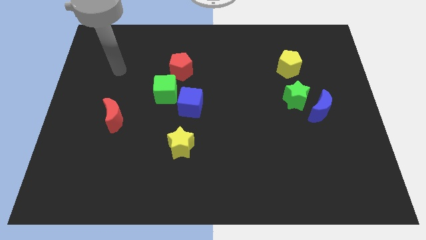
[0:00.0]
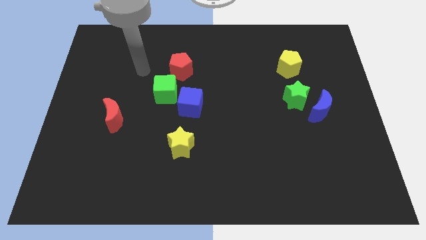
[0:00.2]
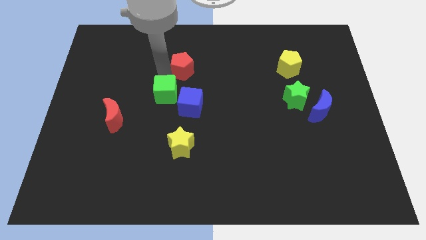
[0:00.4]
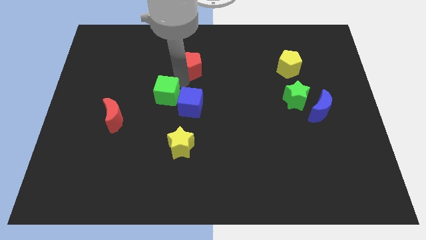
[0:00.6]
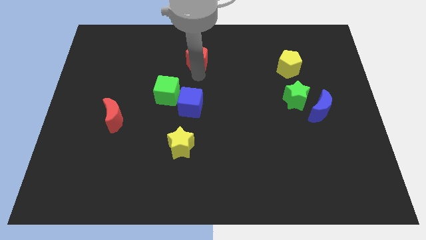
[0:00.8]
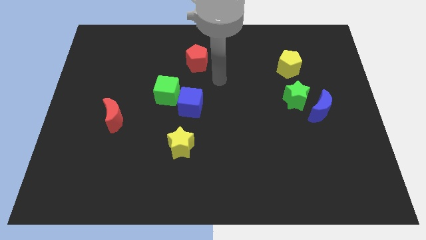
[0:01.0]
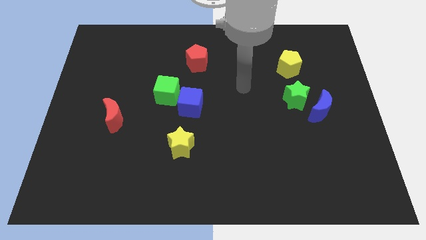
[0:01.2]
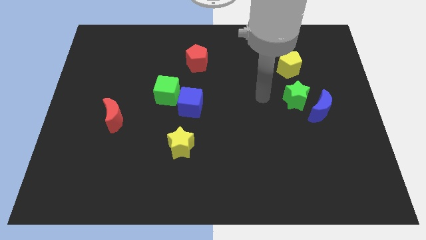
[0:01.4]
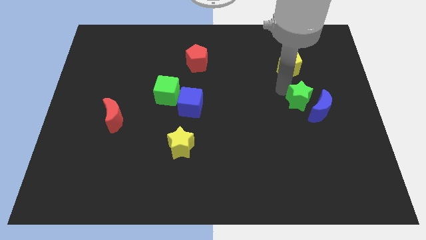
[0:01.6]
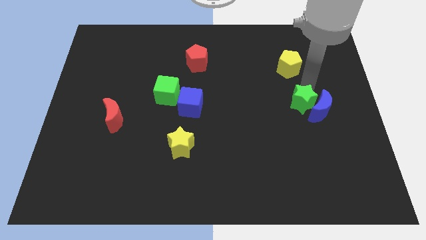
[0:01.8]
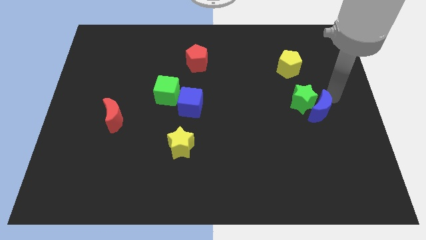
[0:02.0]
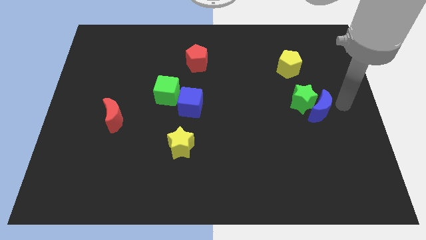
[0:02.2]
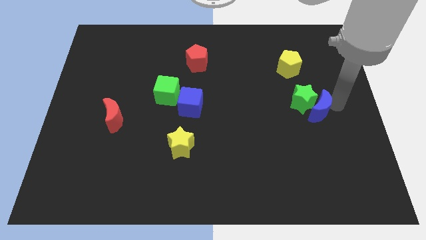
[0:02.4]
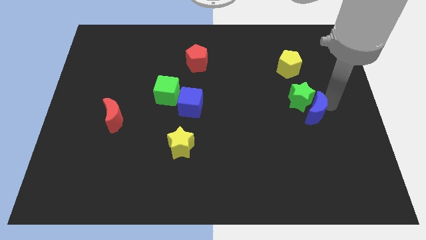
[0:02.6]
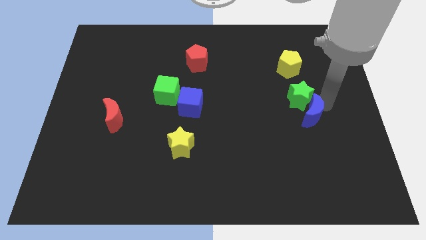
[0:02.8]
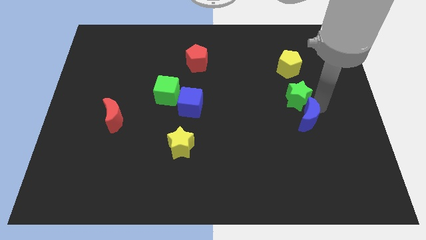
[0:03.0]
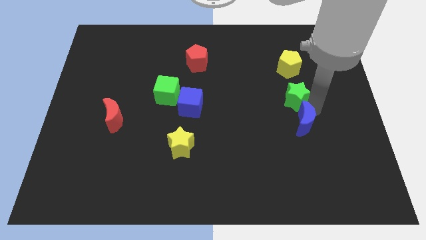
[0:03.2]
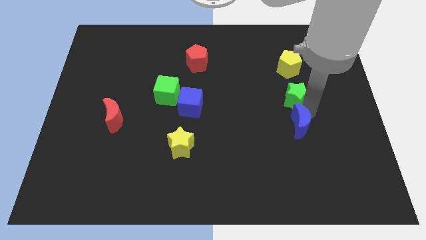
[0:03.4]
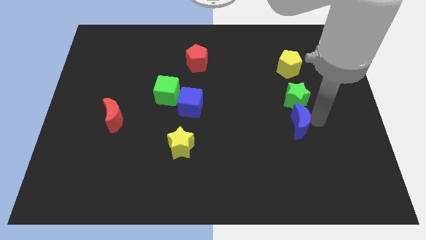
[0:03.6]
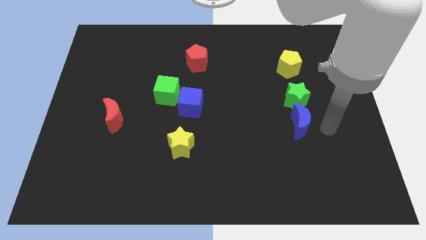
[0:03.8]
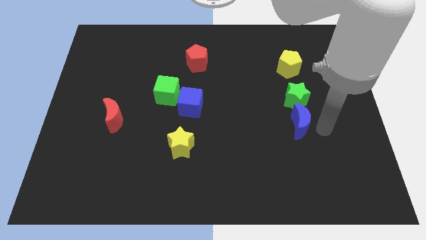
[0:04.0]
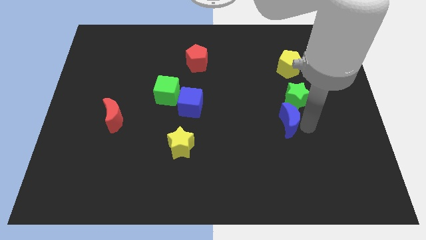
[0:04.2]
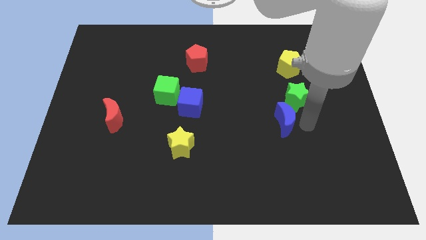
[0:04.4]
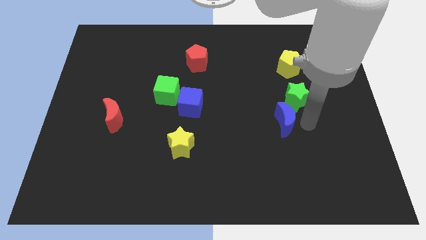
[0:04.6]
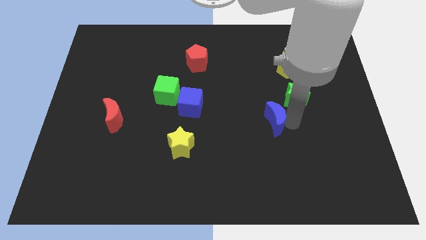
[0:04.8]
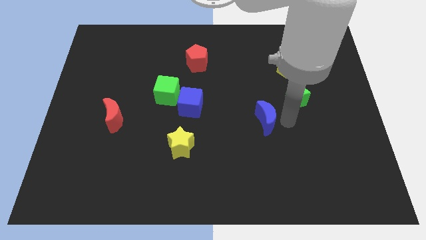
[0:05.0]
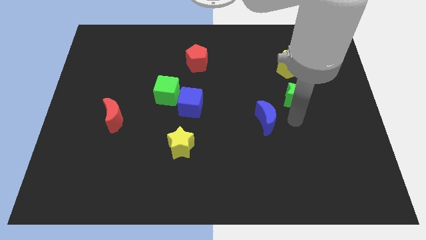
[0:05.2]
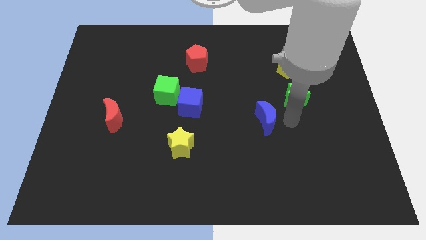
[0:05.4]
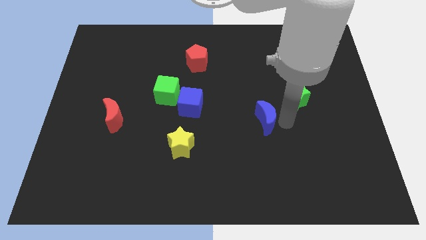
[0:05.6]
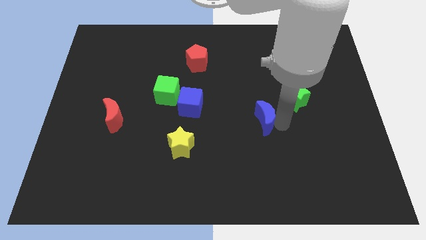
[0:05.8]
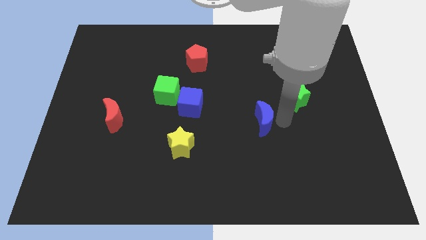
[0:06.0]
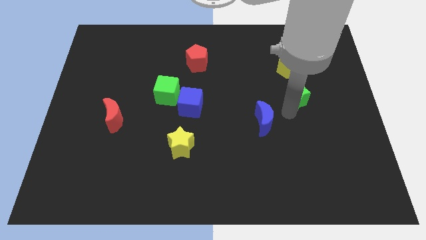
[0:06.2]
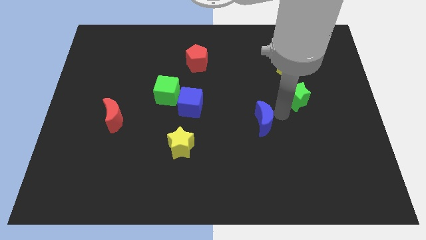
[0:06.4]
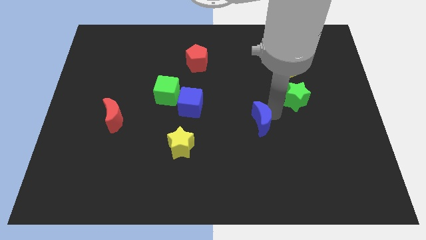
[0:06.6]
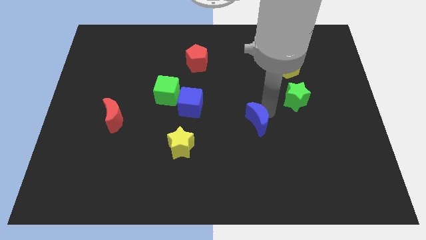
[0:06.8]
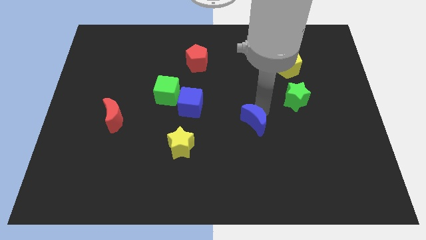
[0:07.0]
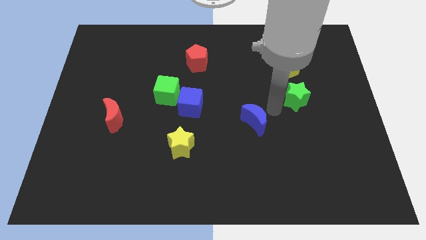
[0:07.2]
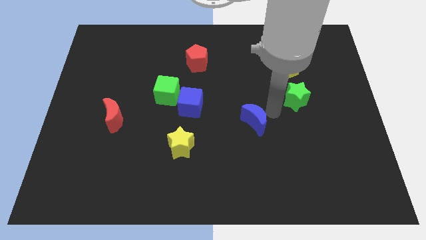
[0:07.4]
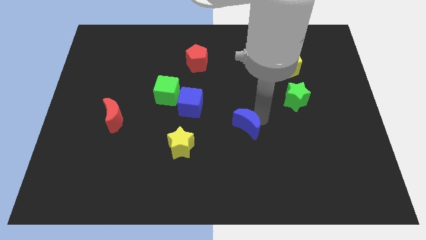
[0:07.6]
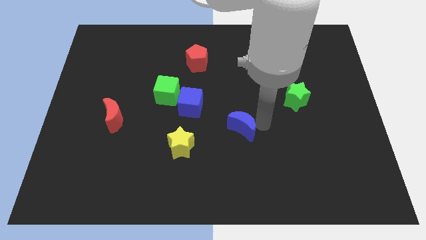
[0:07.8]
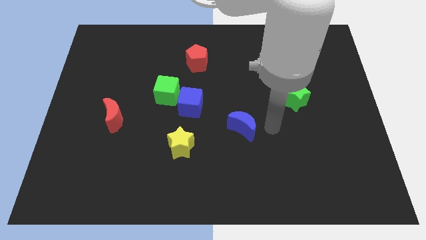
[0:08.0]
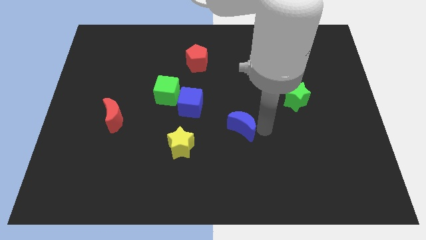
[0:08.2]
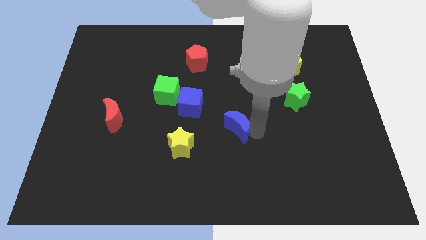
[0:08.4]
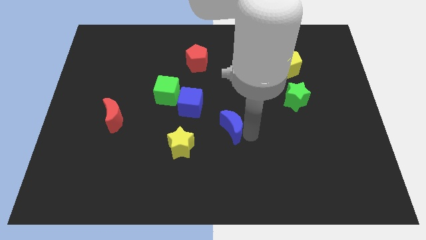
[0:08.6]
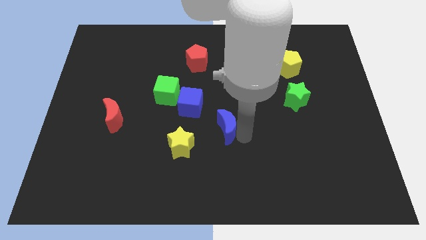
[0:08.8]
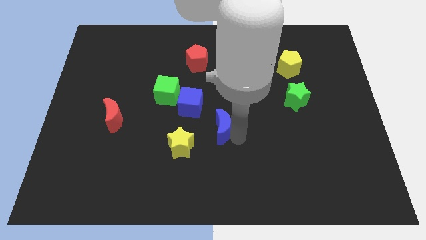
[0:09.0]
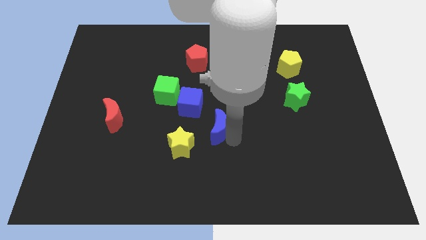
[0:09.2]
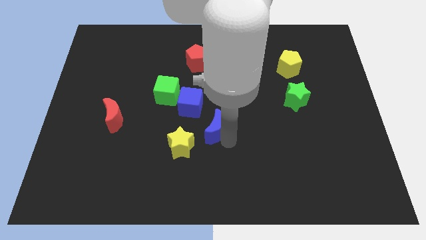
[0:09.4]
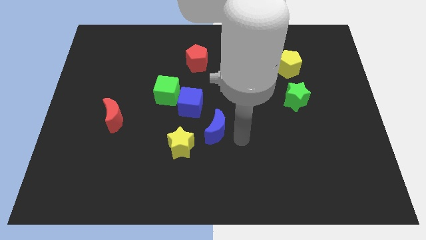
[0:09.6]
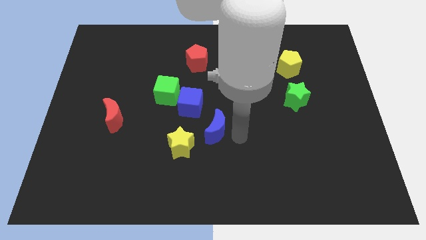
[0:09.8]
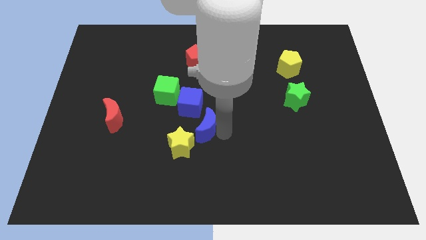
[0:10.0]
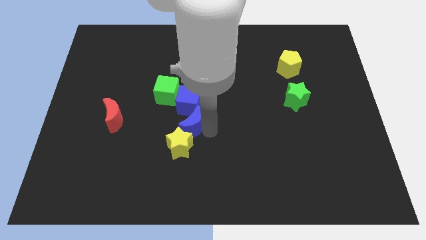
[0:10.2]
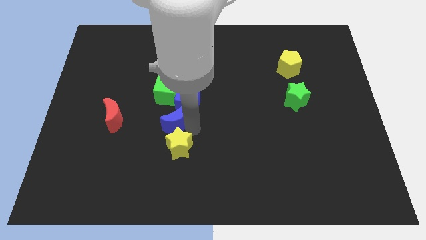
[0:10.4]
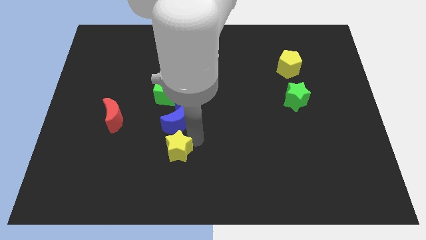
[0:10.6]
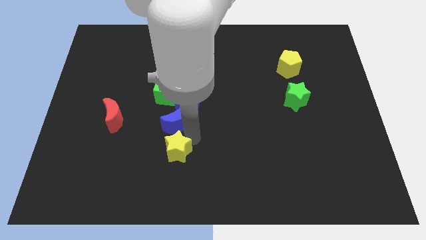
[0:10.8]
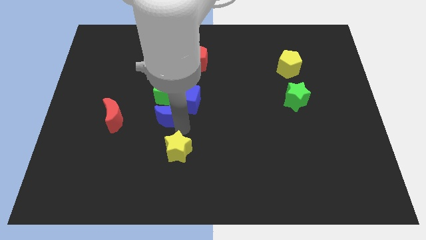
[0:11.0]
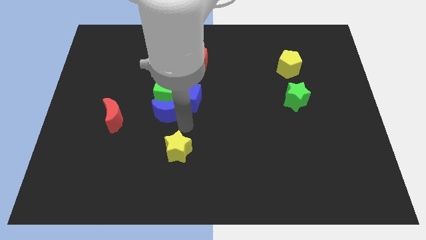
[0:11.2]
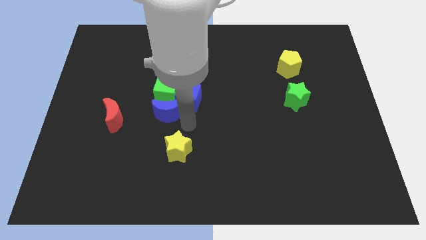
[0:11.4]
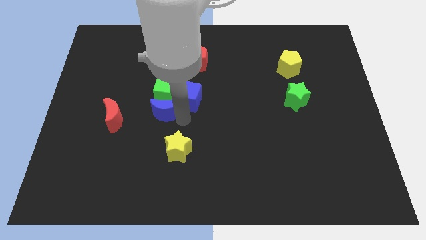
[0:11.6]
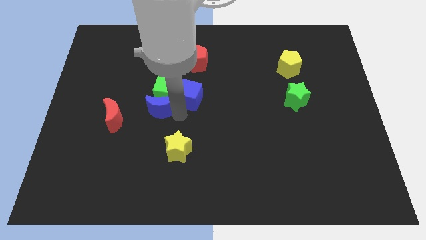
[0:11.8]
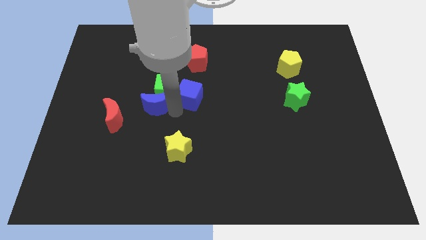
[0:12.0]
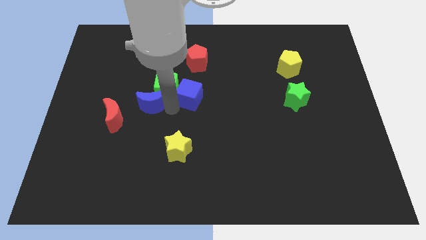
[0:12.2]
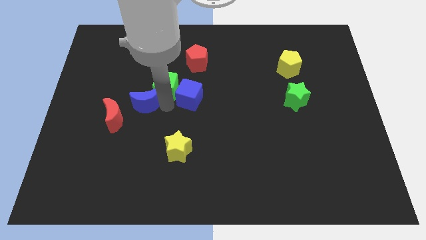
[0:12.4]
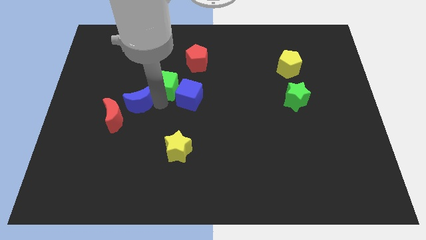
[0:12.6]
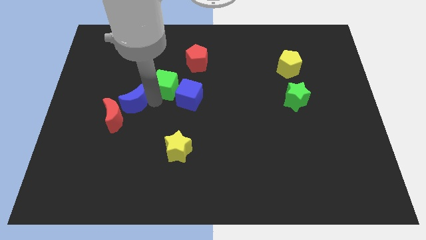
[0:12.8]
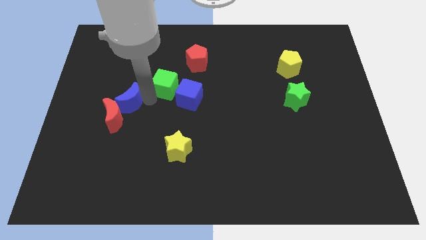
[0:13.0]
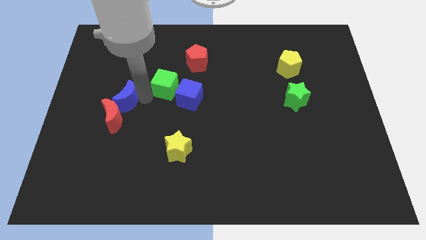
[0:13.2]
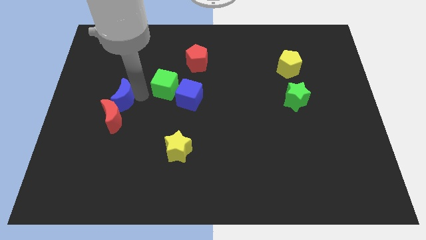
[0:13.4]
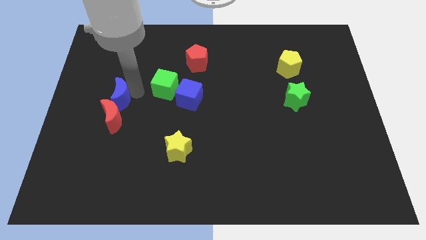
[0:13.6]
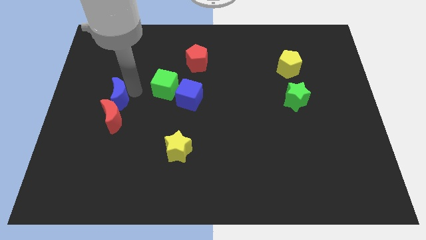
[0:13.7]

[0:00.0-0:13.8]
slide the blue moon to the top left of the red moon
